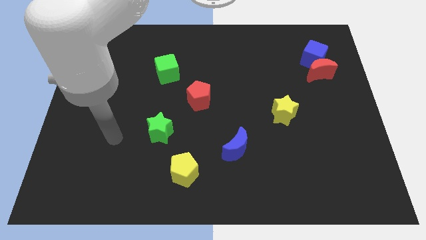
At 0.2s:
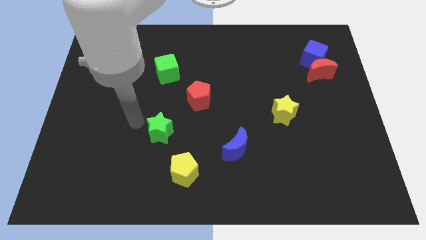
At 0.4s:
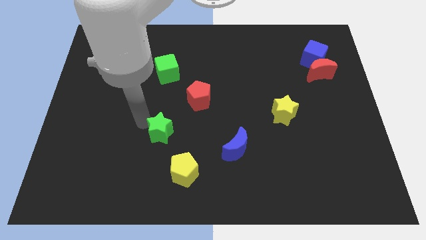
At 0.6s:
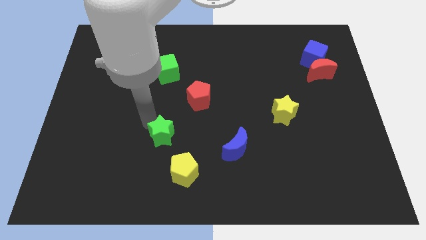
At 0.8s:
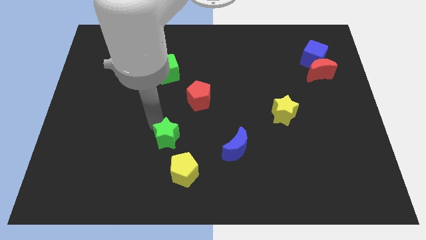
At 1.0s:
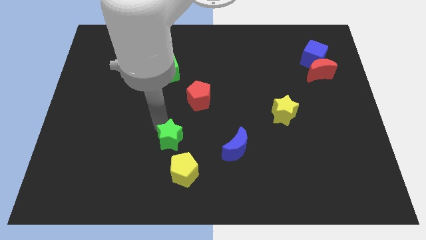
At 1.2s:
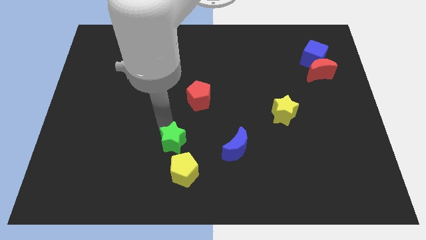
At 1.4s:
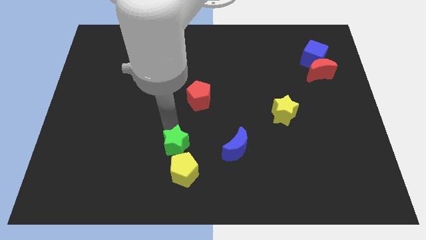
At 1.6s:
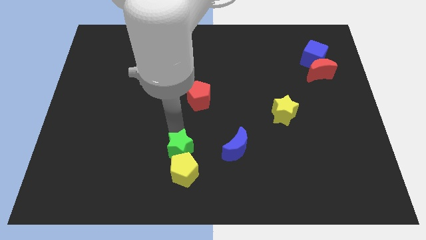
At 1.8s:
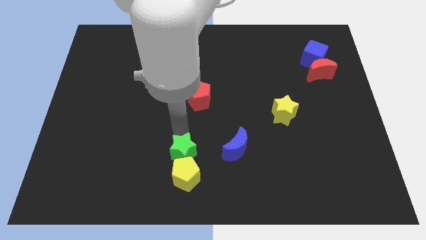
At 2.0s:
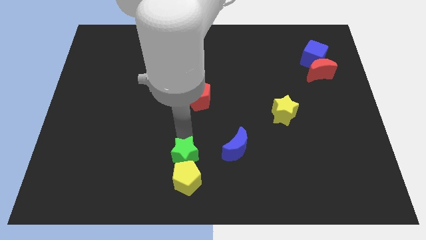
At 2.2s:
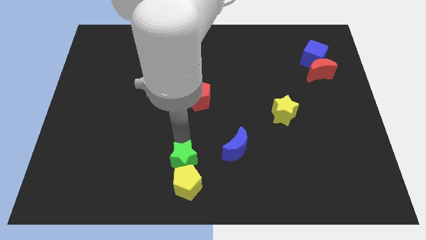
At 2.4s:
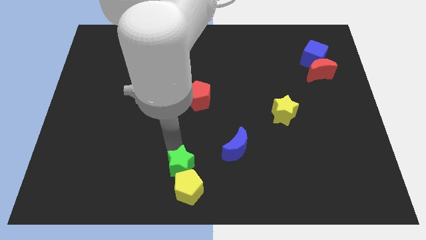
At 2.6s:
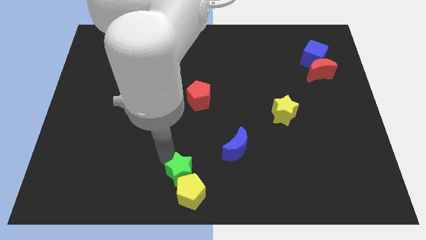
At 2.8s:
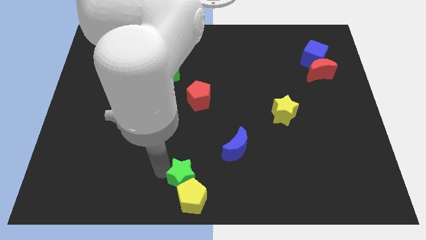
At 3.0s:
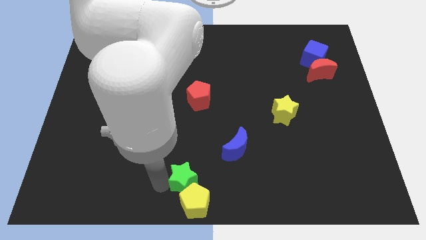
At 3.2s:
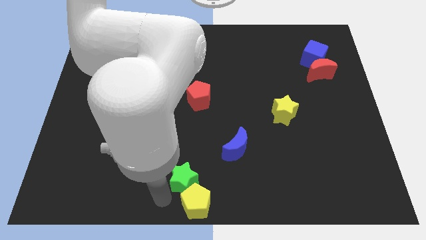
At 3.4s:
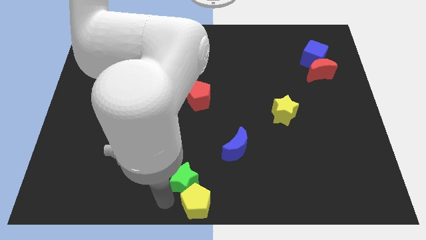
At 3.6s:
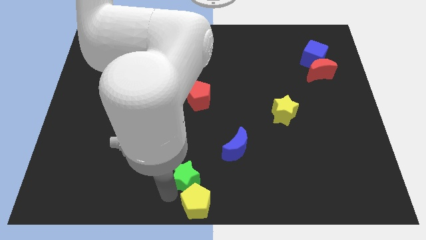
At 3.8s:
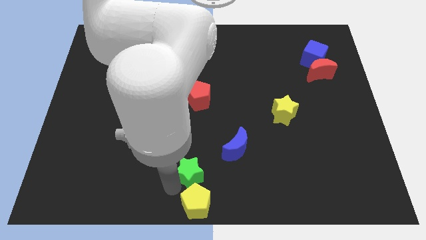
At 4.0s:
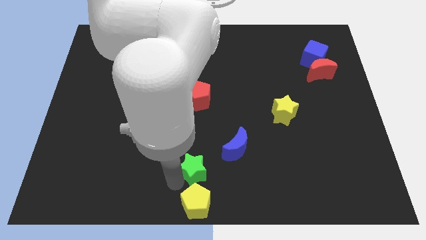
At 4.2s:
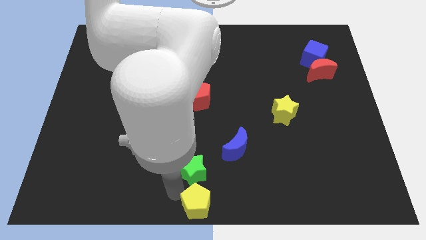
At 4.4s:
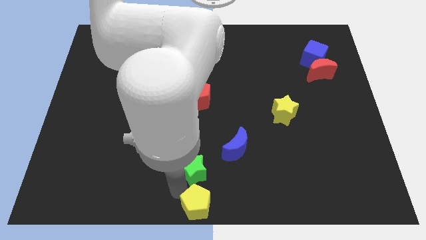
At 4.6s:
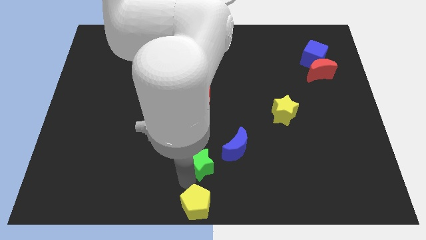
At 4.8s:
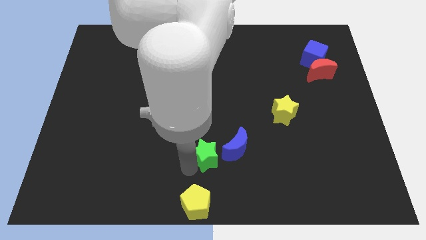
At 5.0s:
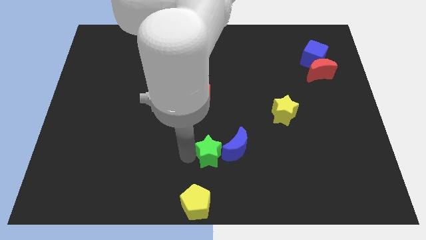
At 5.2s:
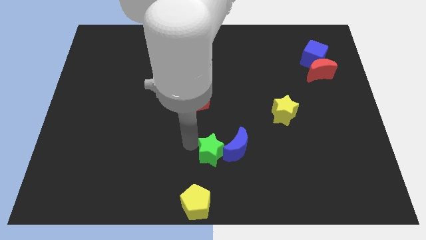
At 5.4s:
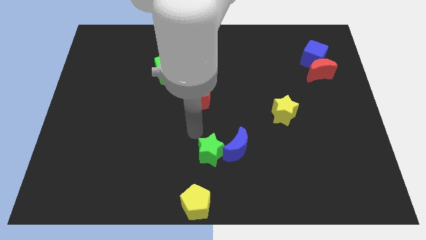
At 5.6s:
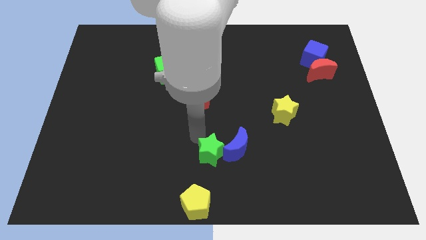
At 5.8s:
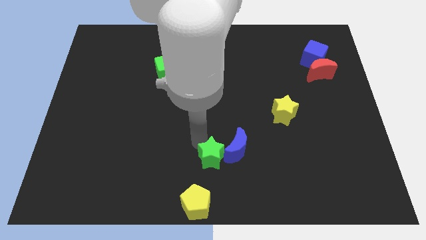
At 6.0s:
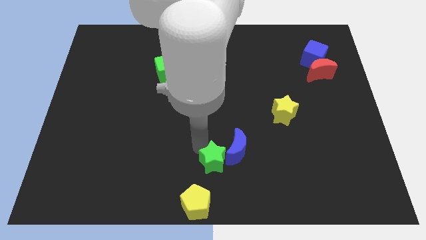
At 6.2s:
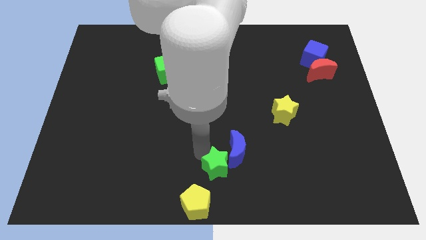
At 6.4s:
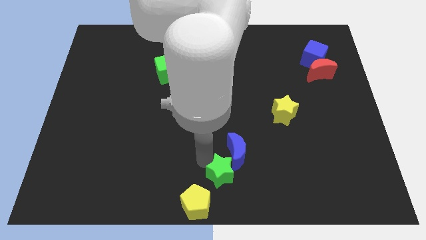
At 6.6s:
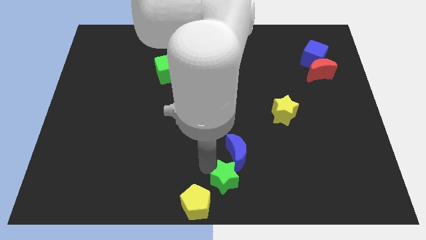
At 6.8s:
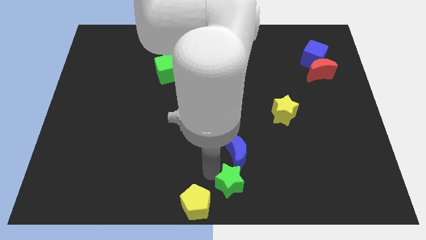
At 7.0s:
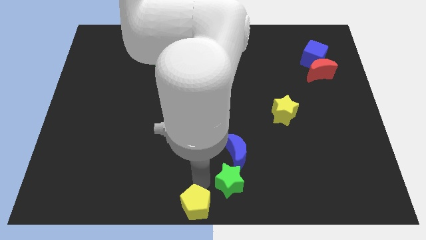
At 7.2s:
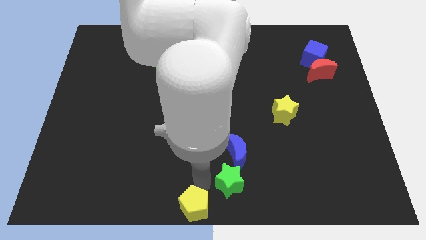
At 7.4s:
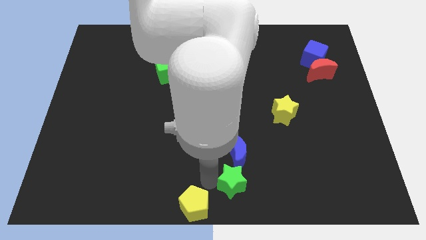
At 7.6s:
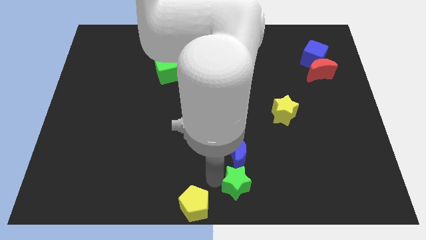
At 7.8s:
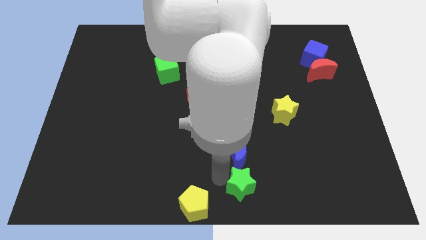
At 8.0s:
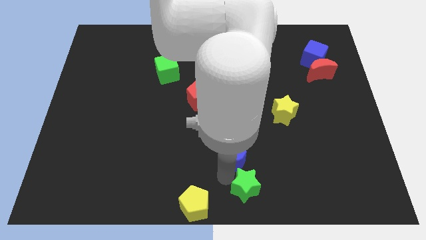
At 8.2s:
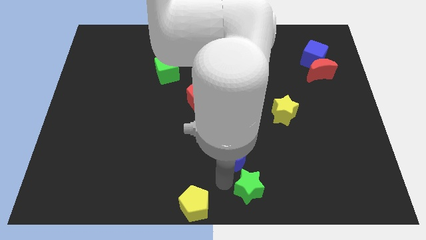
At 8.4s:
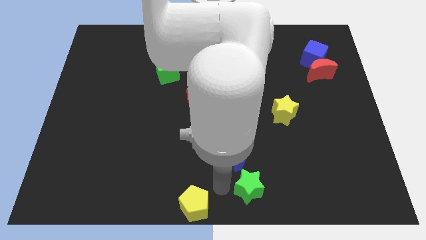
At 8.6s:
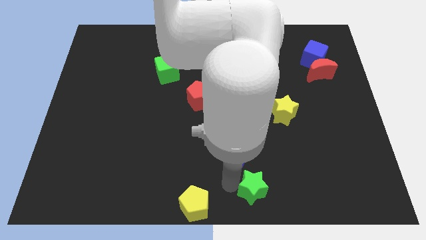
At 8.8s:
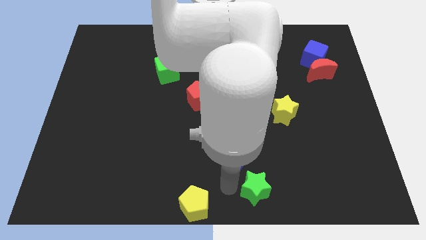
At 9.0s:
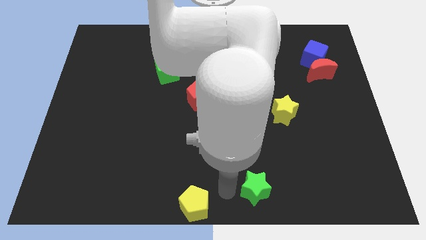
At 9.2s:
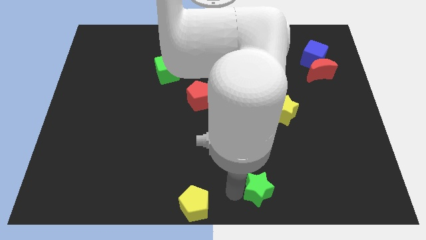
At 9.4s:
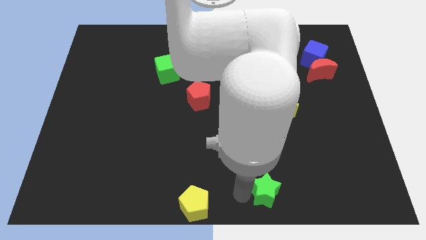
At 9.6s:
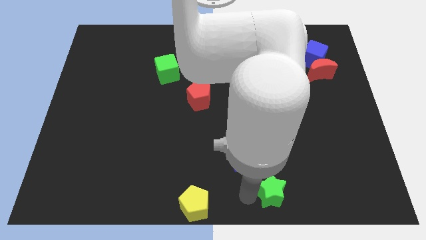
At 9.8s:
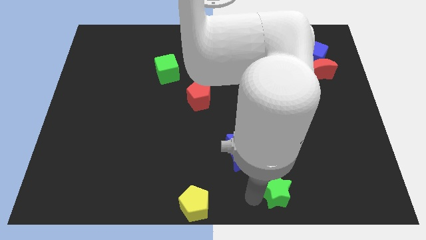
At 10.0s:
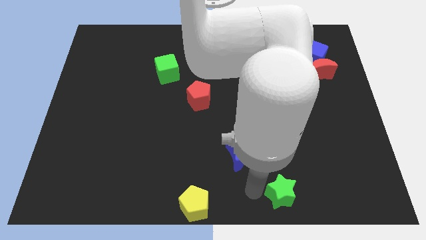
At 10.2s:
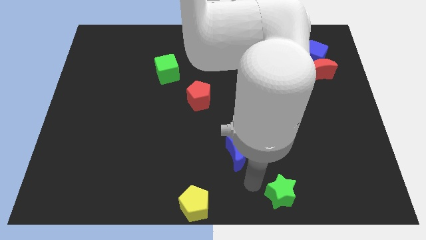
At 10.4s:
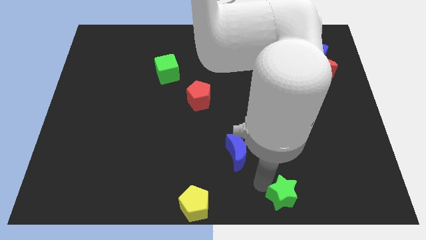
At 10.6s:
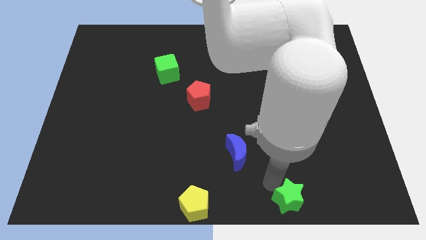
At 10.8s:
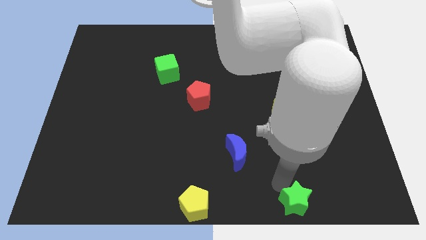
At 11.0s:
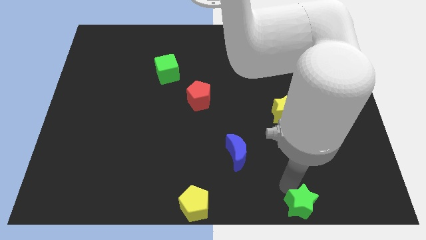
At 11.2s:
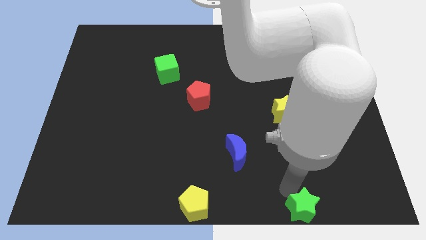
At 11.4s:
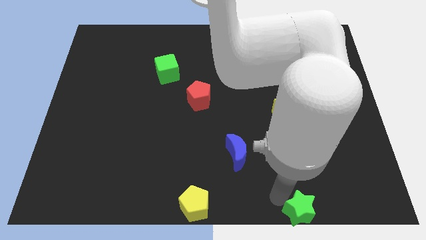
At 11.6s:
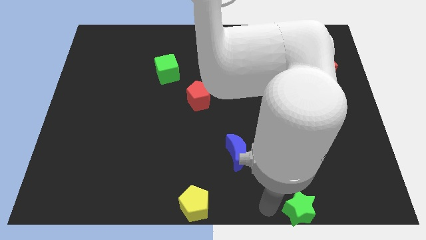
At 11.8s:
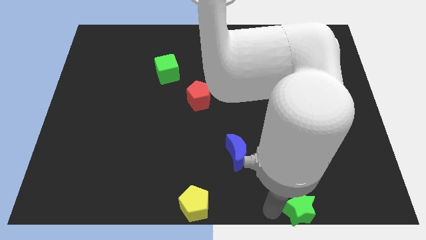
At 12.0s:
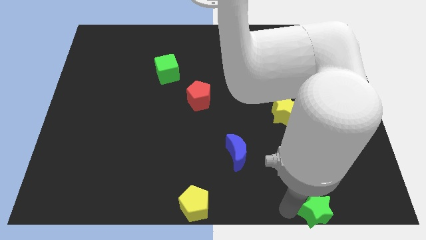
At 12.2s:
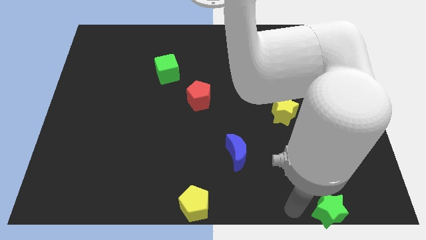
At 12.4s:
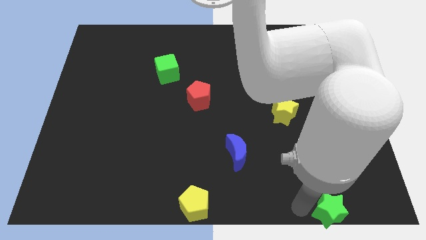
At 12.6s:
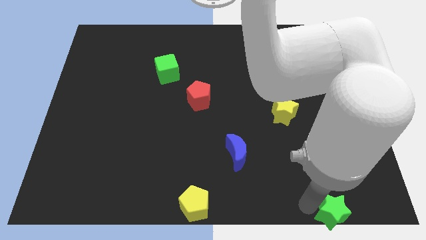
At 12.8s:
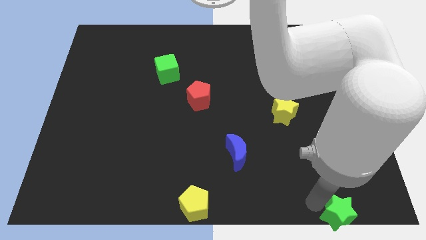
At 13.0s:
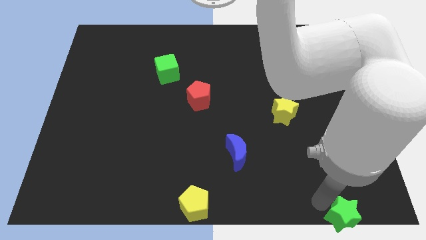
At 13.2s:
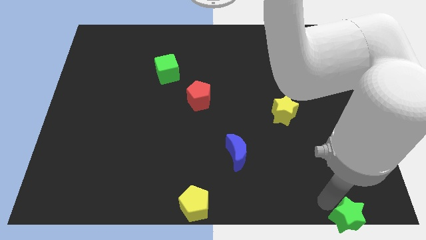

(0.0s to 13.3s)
push the green star to the bottom right of the board
